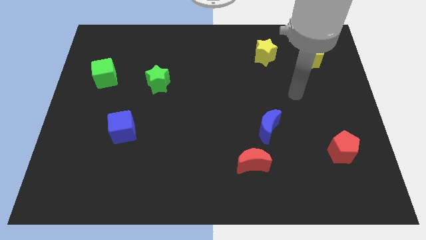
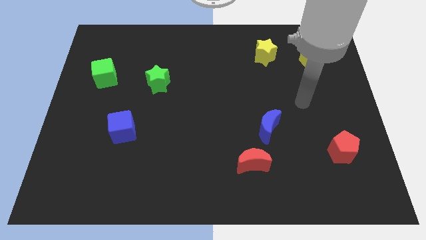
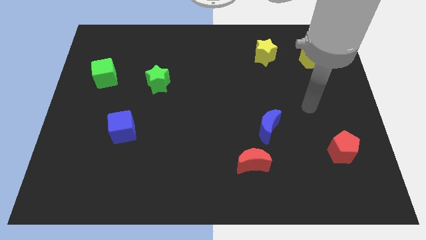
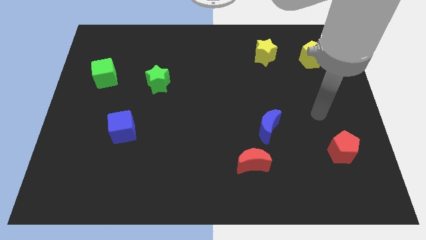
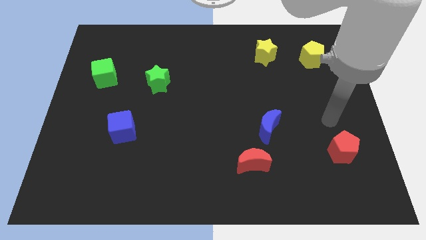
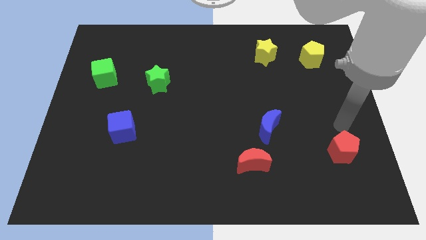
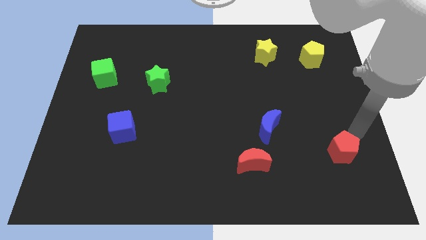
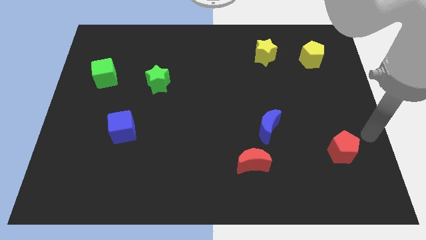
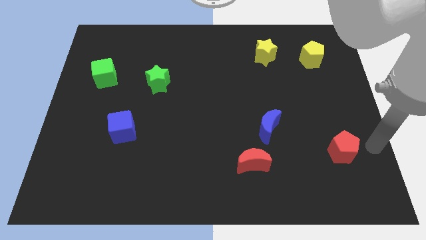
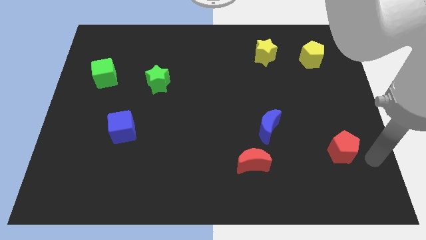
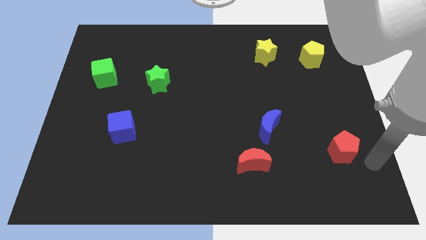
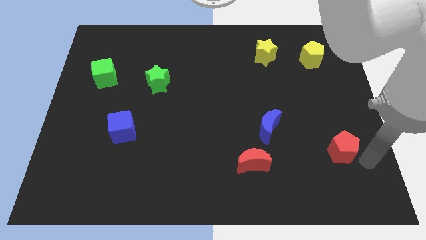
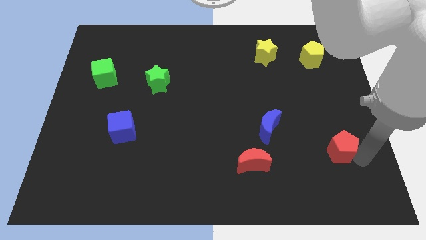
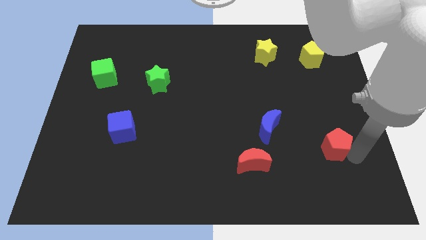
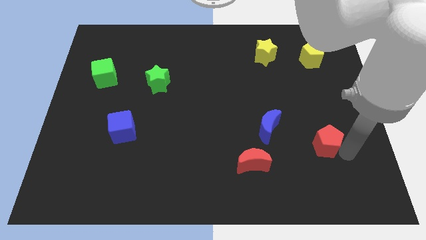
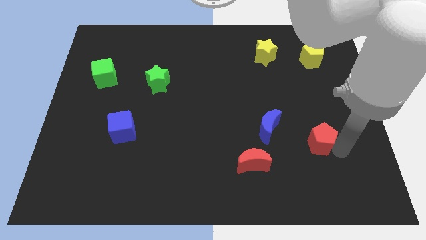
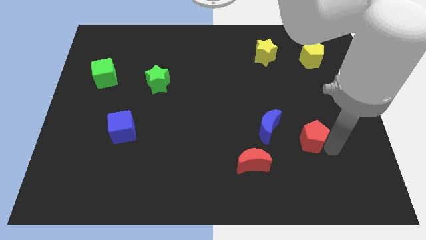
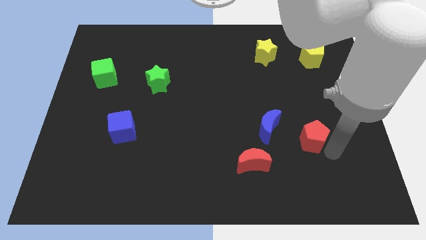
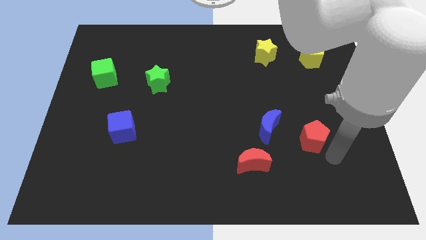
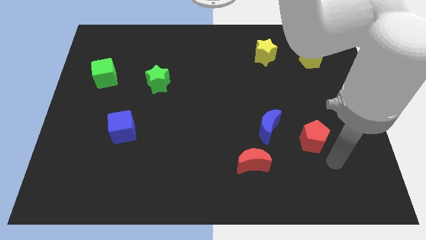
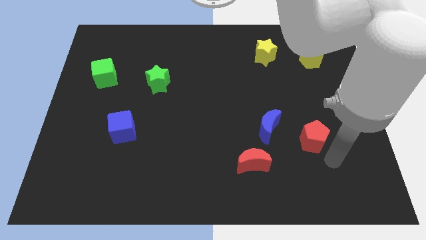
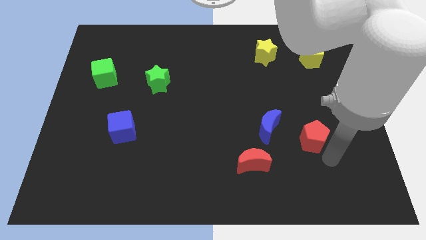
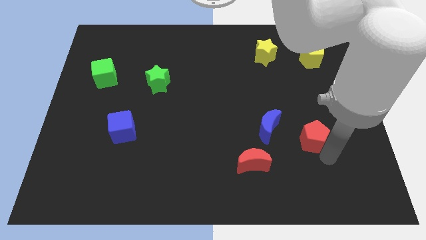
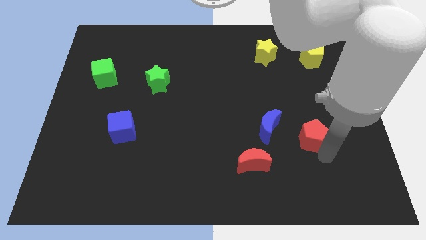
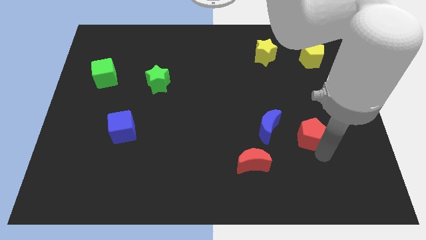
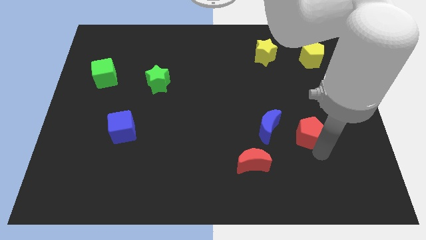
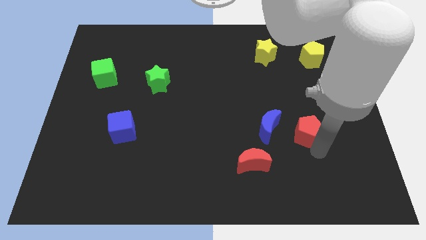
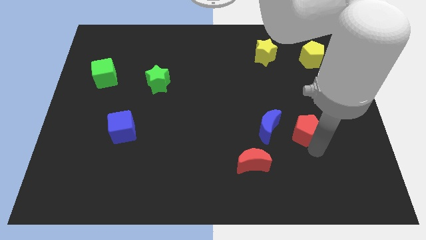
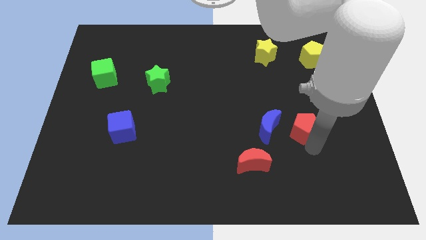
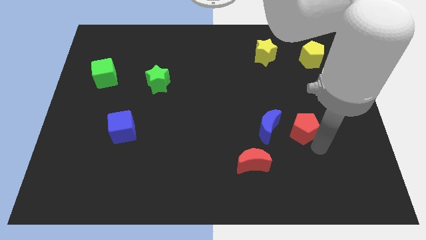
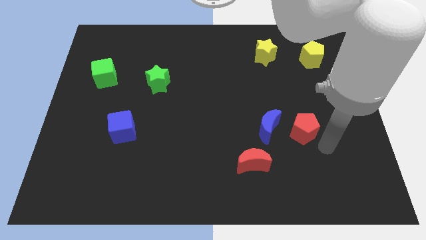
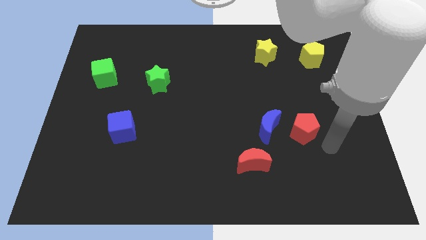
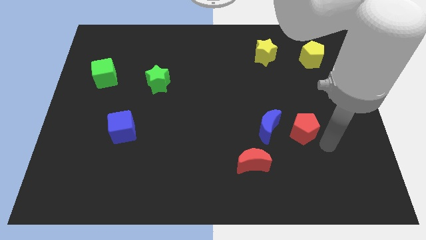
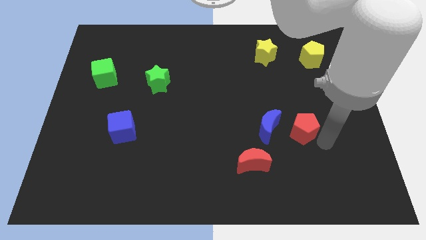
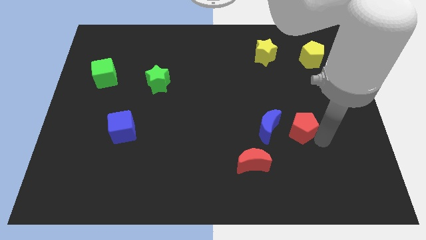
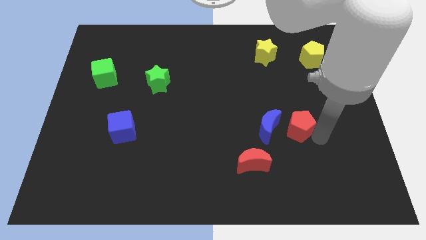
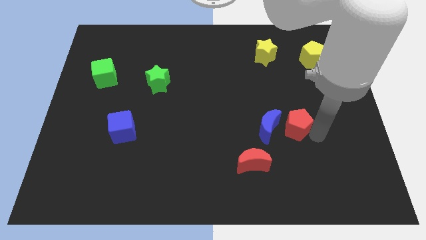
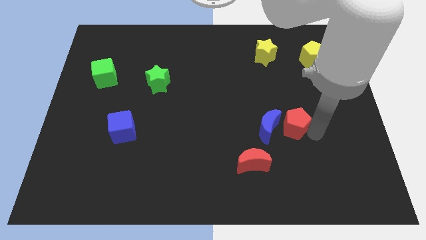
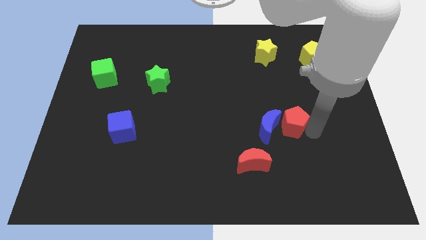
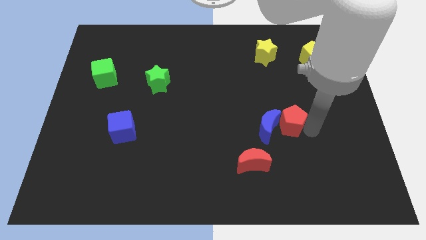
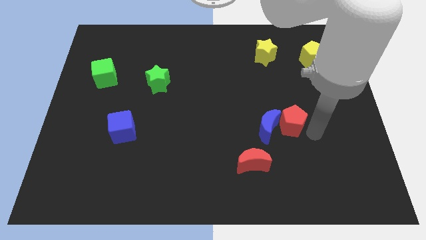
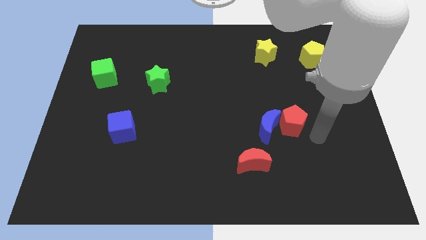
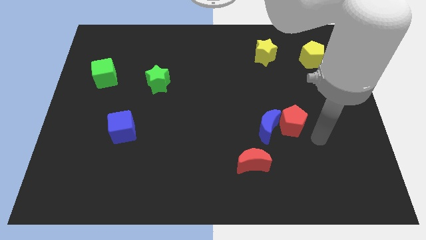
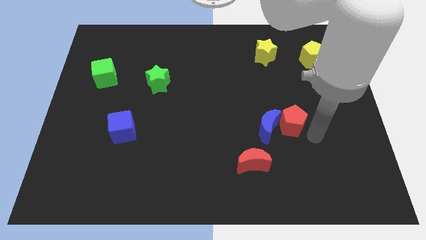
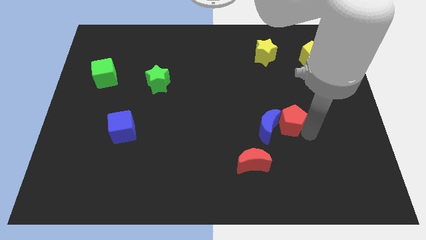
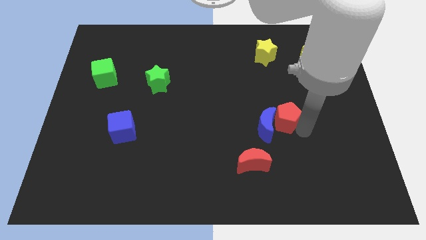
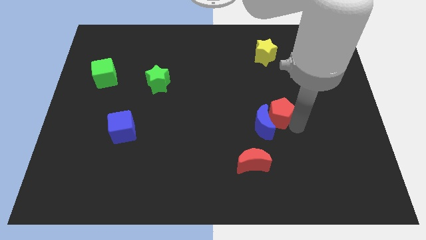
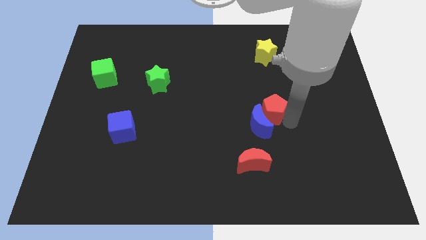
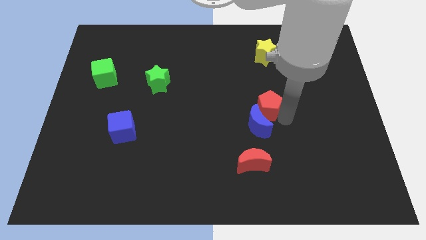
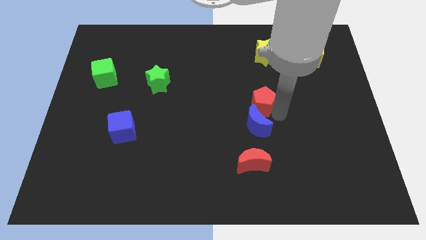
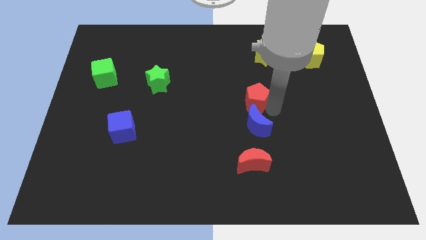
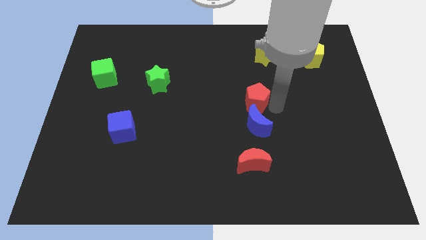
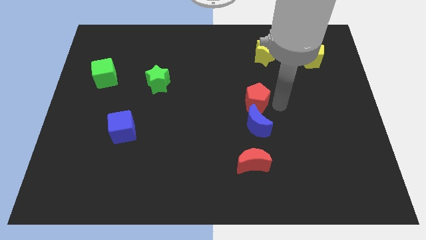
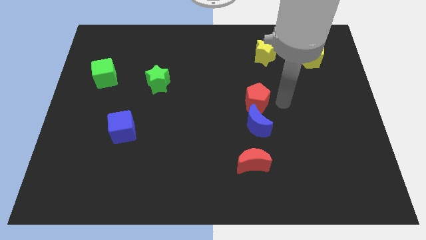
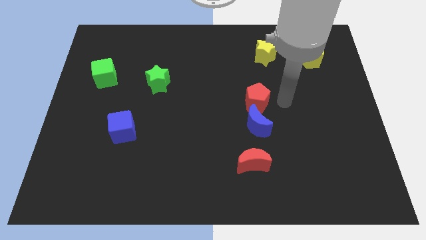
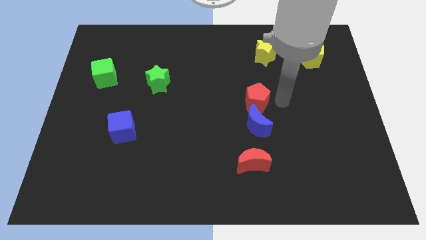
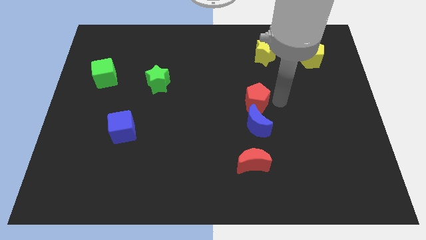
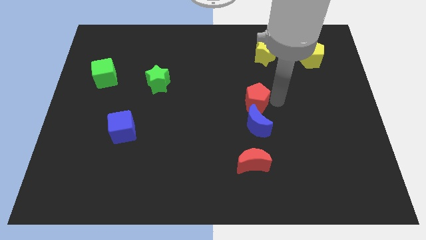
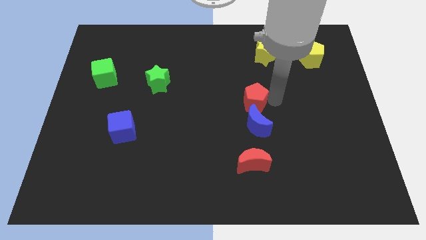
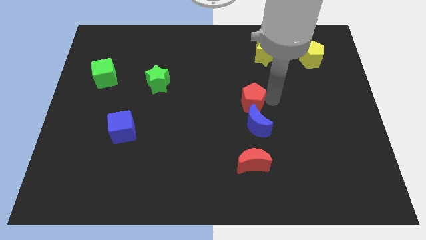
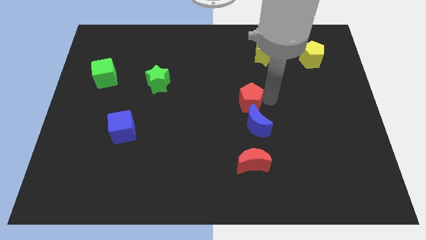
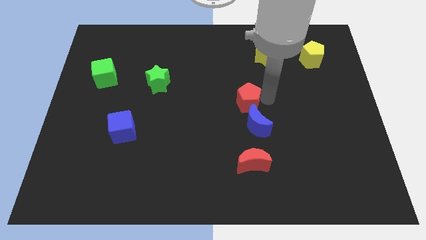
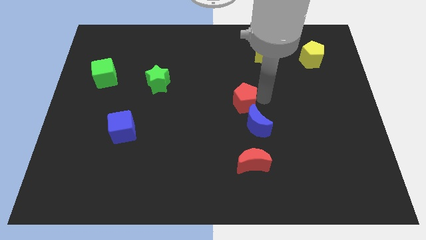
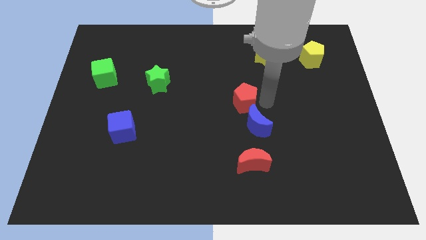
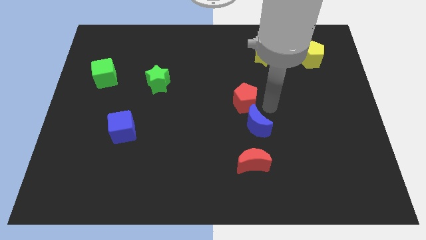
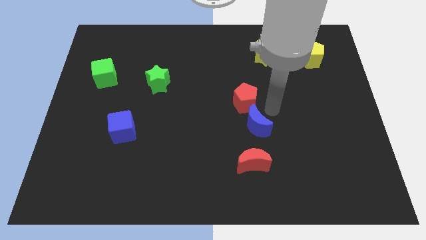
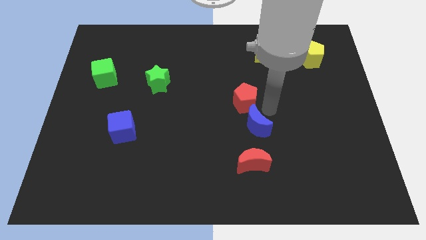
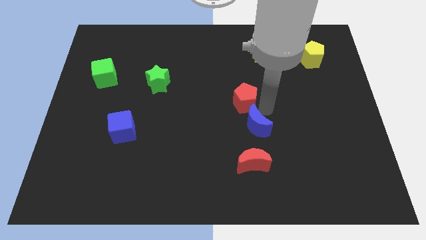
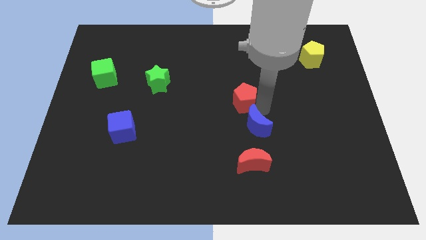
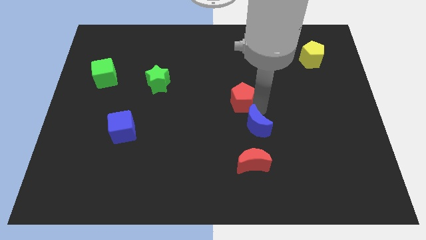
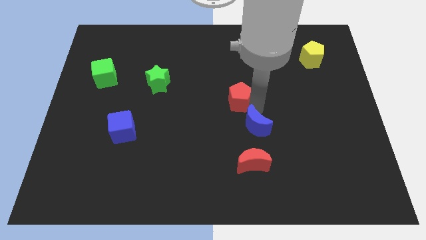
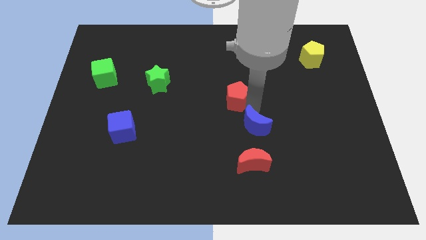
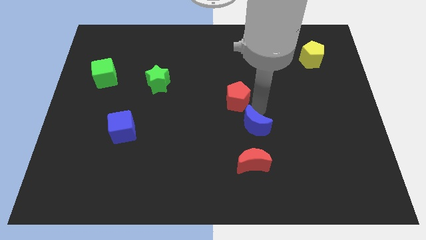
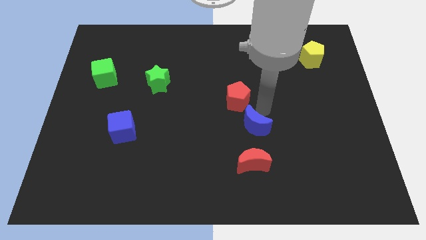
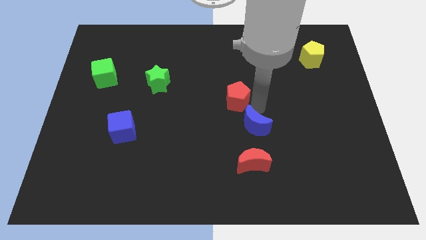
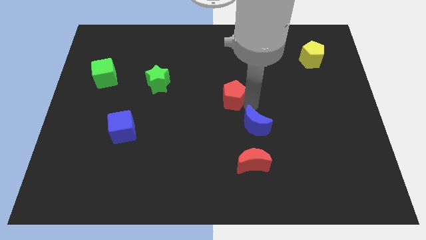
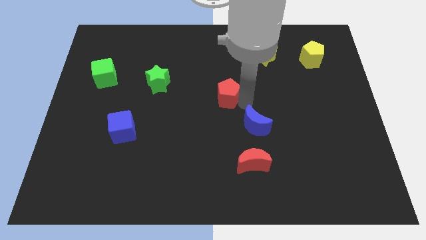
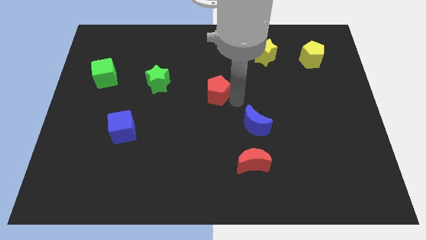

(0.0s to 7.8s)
push the red pentagon to the right side of the green star

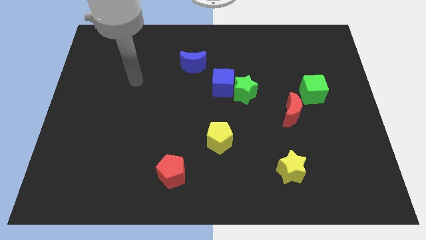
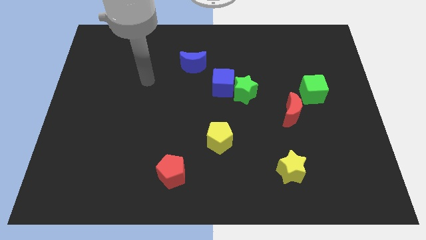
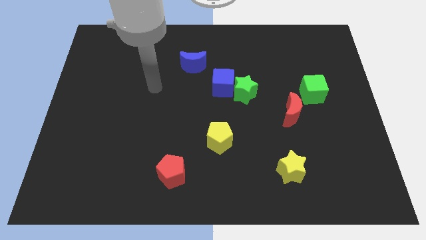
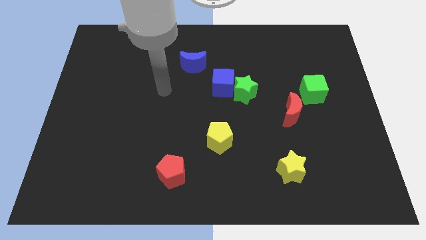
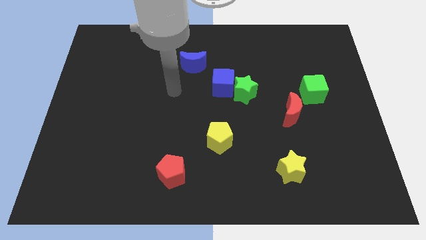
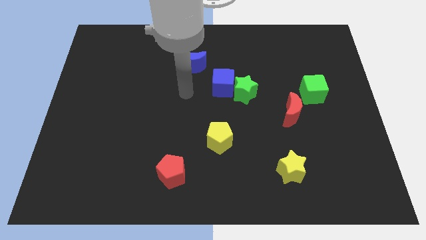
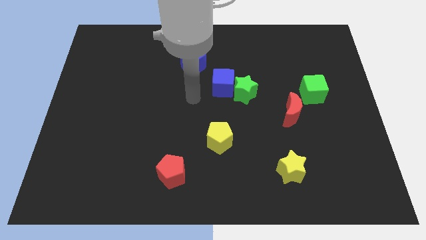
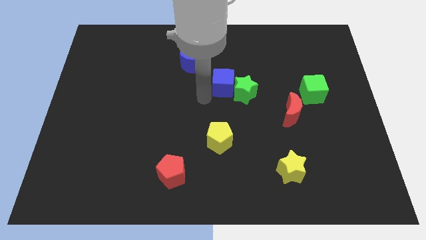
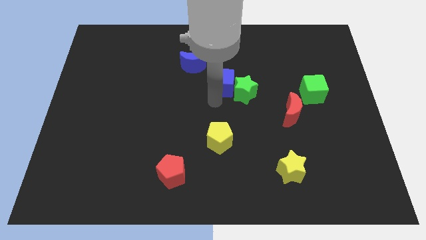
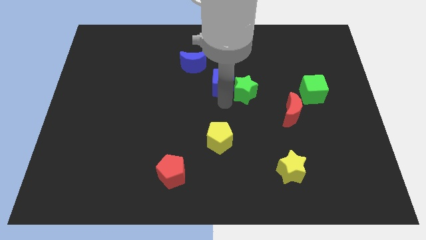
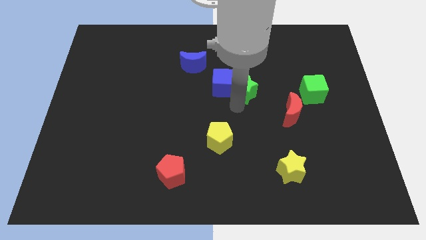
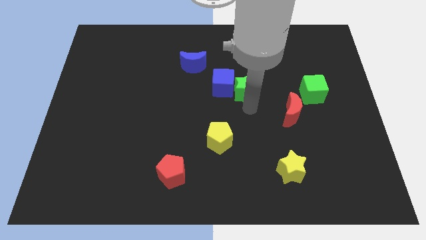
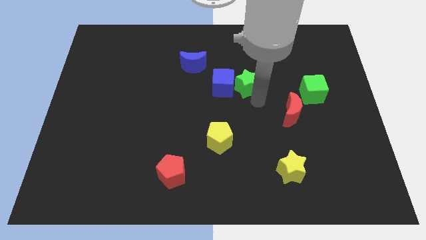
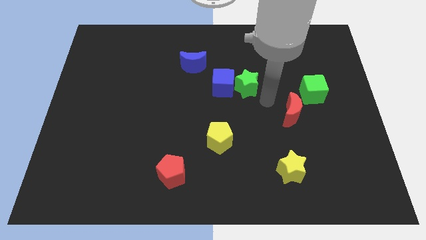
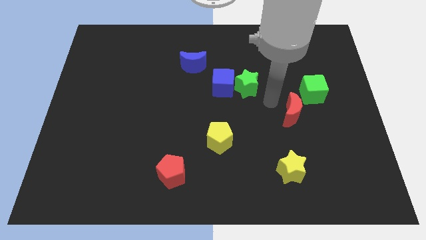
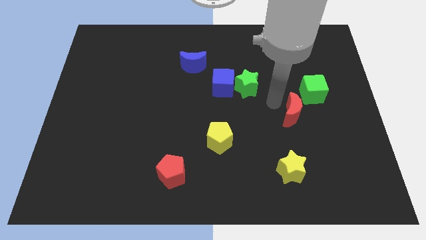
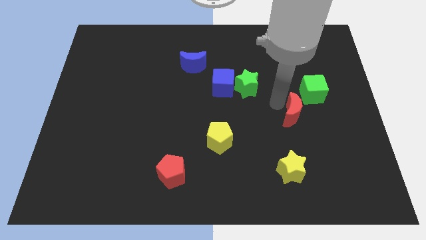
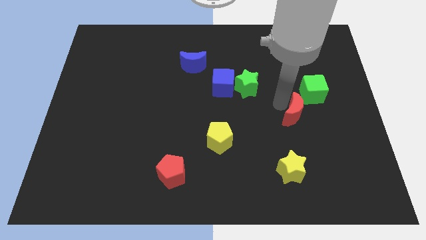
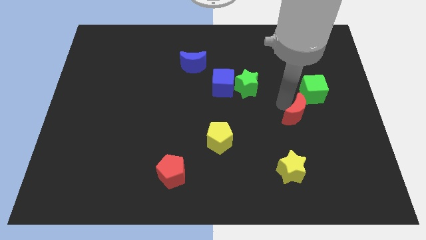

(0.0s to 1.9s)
move the red moon below the green cube
